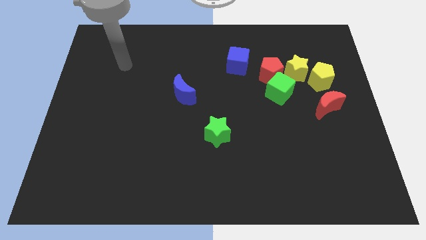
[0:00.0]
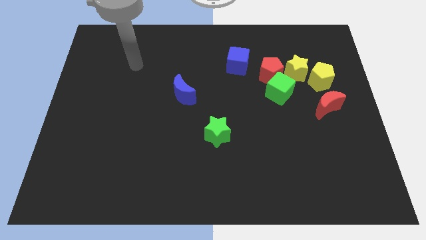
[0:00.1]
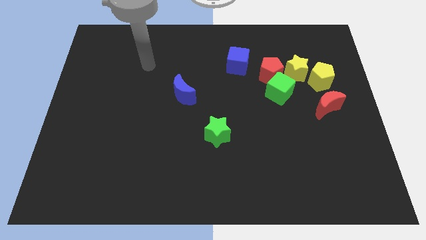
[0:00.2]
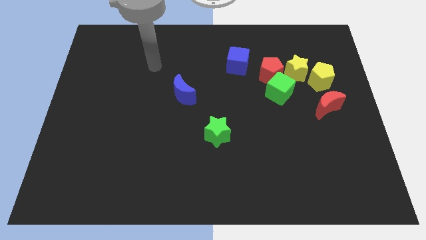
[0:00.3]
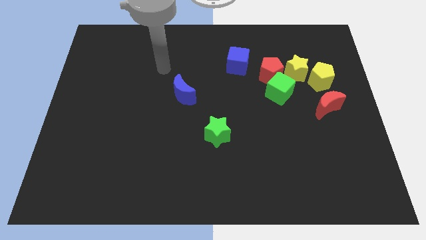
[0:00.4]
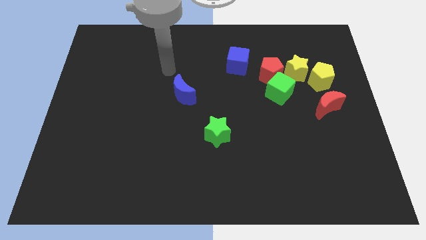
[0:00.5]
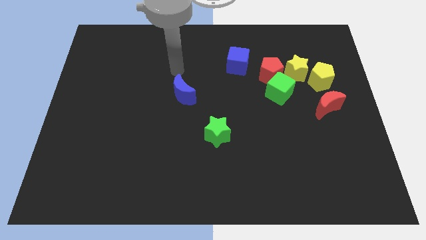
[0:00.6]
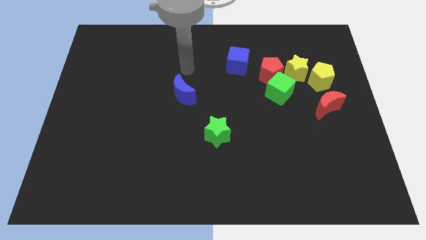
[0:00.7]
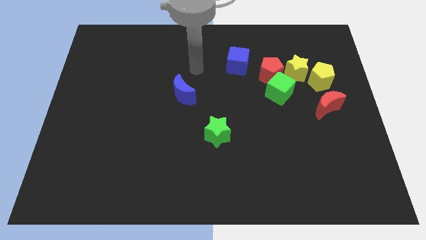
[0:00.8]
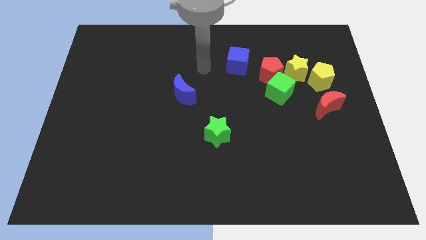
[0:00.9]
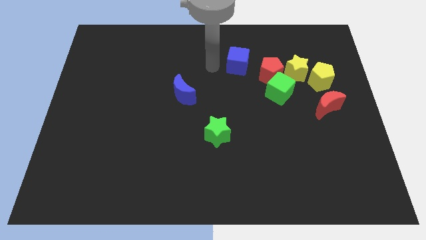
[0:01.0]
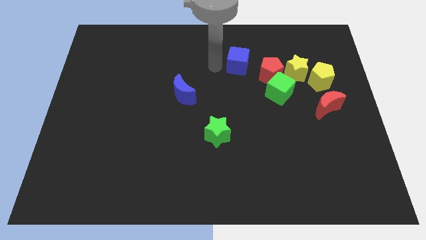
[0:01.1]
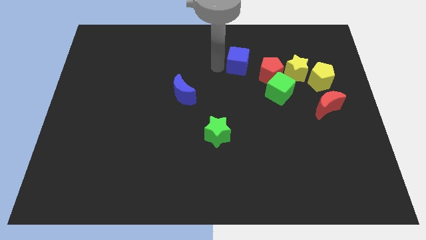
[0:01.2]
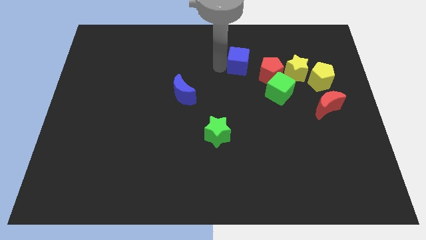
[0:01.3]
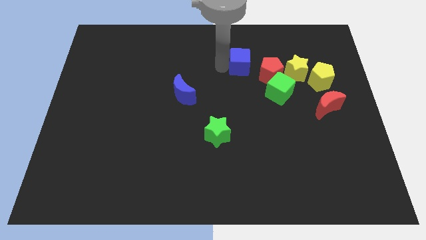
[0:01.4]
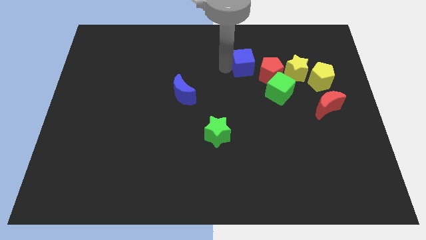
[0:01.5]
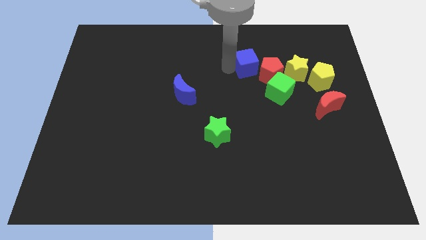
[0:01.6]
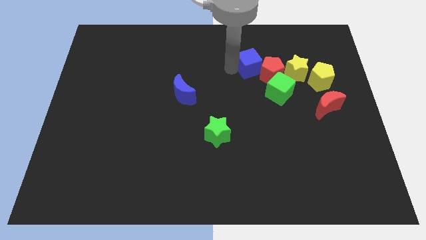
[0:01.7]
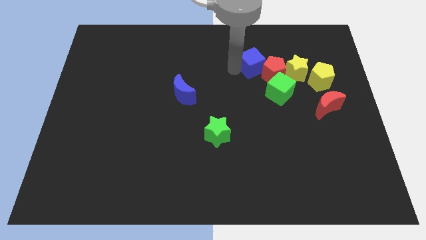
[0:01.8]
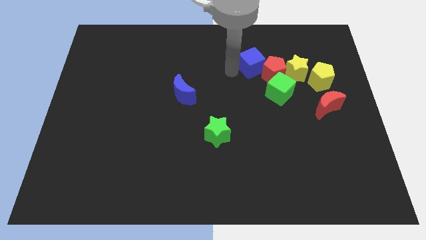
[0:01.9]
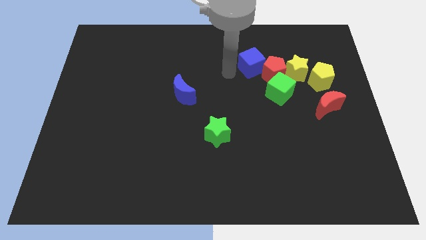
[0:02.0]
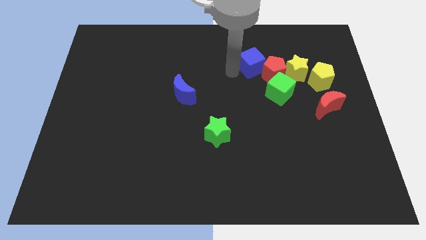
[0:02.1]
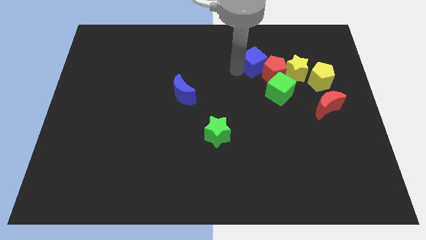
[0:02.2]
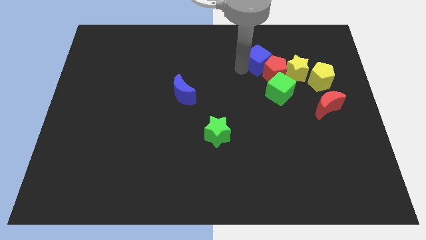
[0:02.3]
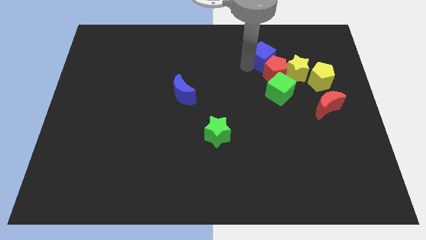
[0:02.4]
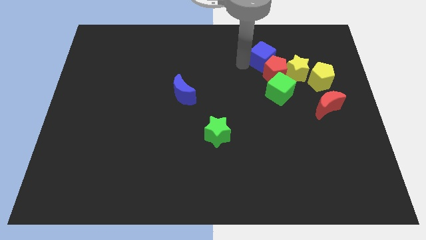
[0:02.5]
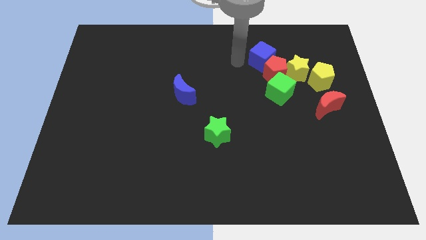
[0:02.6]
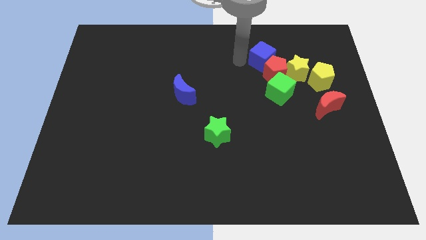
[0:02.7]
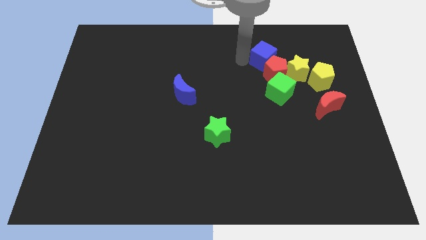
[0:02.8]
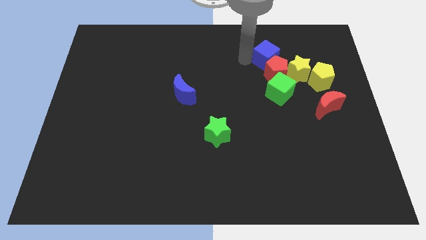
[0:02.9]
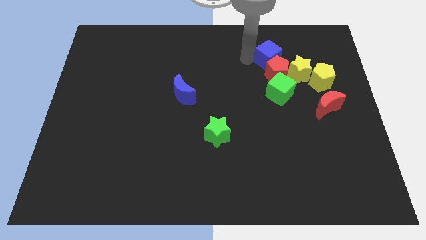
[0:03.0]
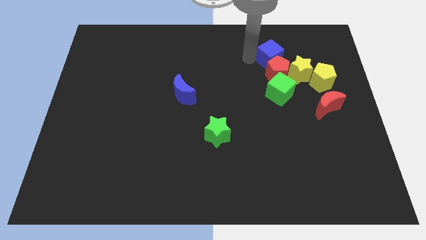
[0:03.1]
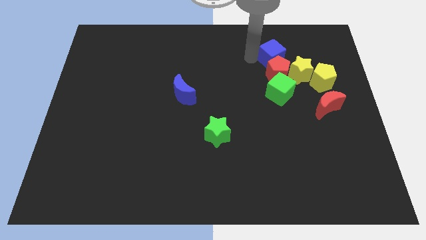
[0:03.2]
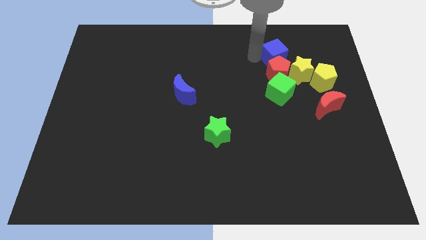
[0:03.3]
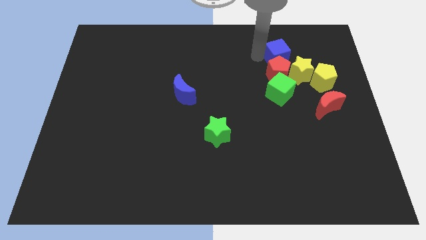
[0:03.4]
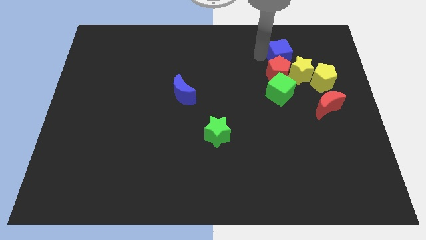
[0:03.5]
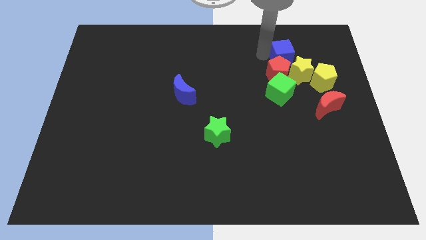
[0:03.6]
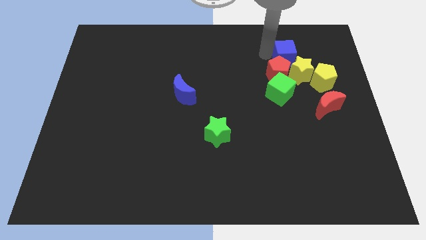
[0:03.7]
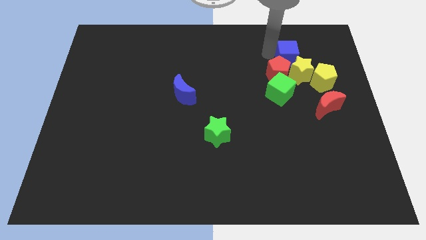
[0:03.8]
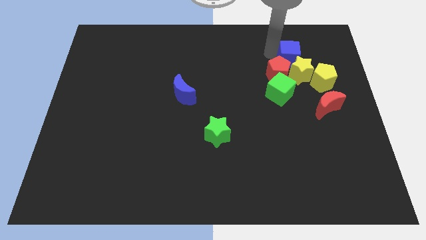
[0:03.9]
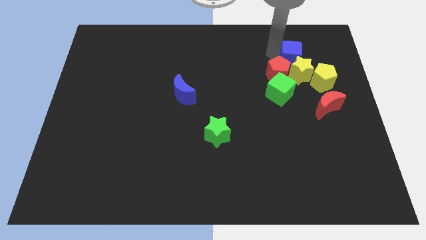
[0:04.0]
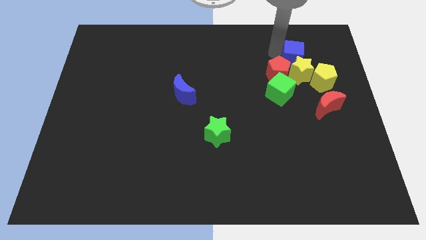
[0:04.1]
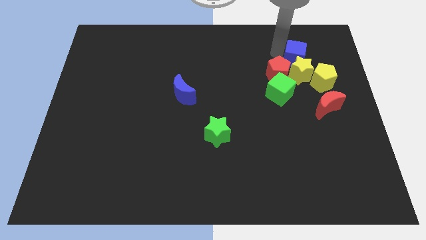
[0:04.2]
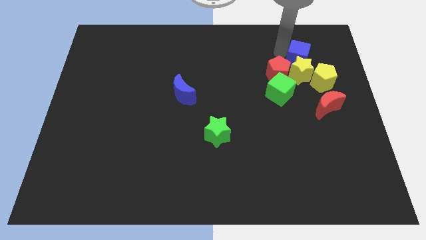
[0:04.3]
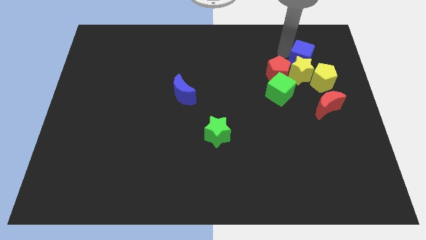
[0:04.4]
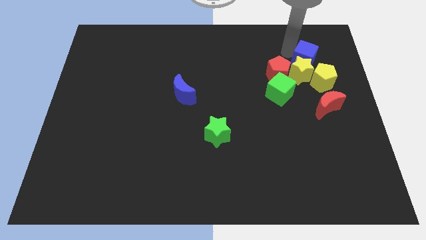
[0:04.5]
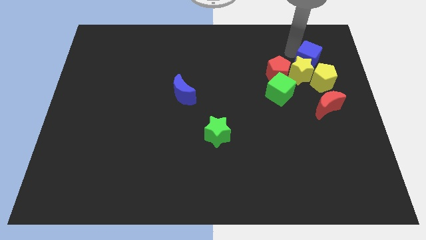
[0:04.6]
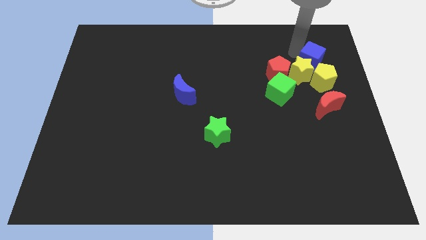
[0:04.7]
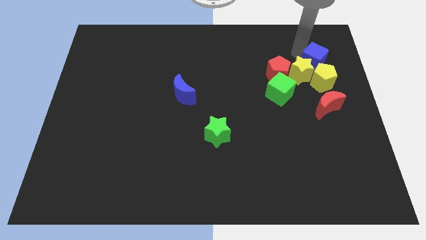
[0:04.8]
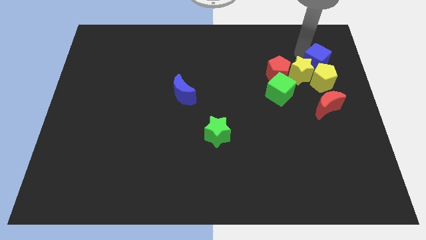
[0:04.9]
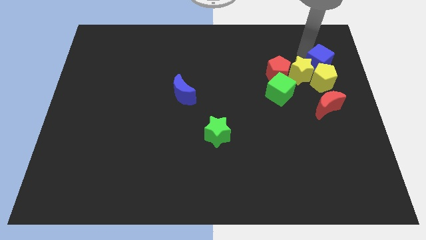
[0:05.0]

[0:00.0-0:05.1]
move the blue cube close to the yellow pentagon

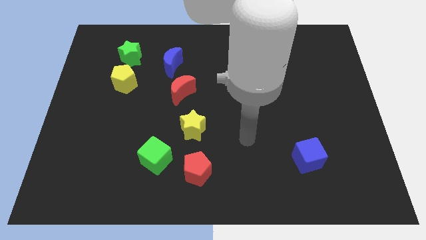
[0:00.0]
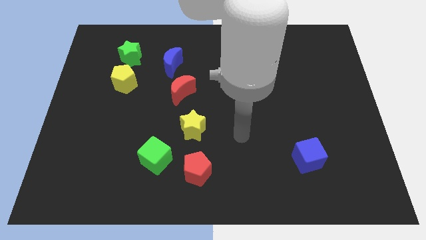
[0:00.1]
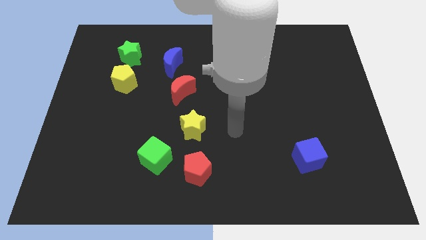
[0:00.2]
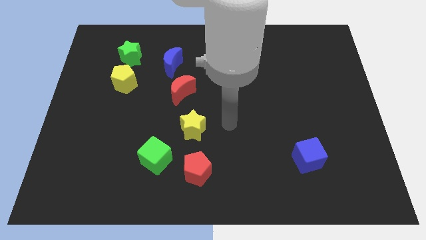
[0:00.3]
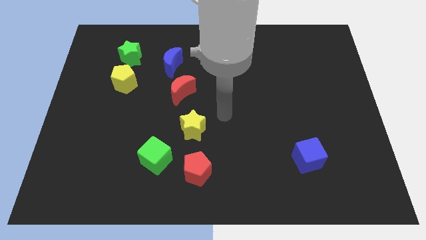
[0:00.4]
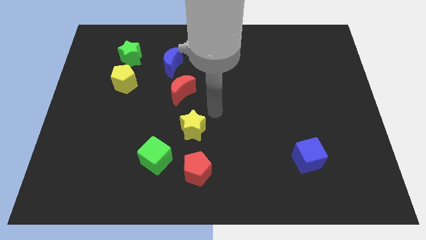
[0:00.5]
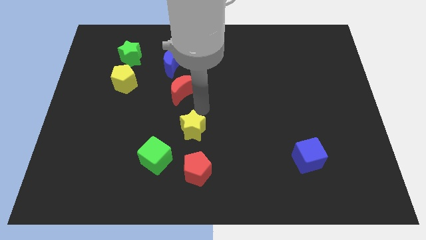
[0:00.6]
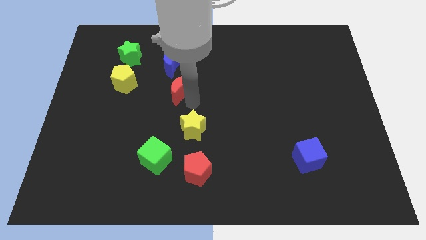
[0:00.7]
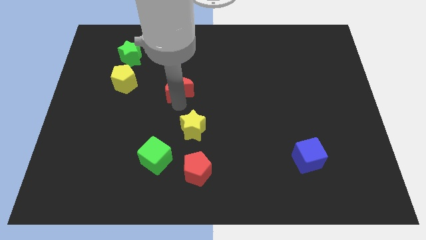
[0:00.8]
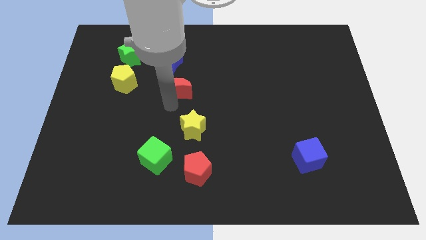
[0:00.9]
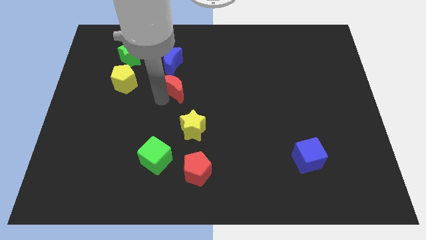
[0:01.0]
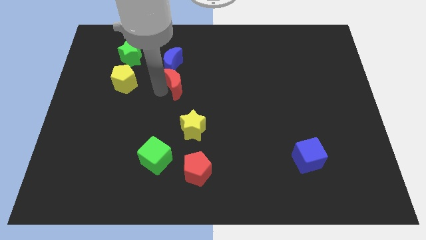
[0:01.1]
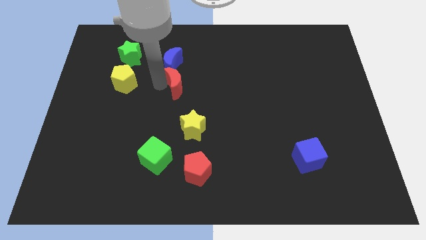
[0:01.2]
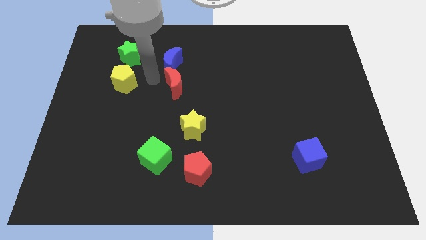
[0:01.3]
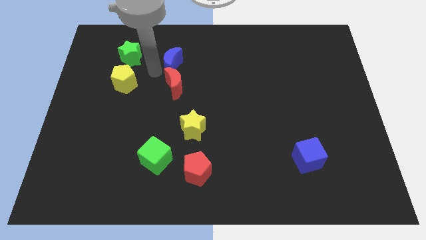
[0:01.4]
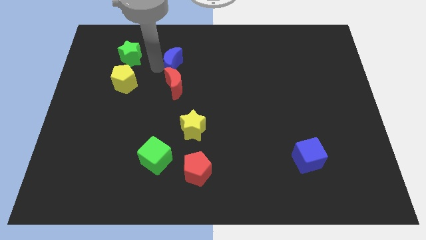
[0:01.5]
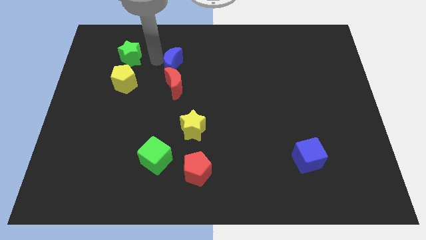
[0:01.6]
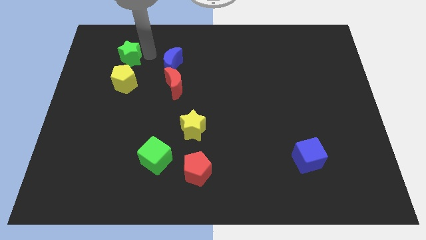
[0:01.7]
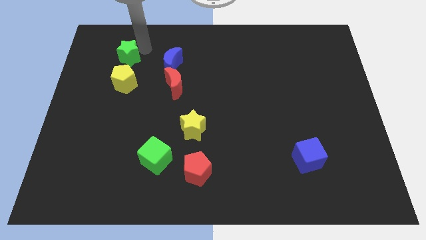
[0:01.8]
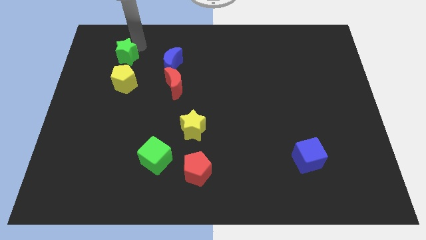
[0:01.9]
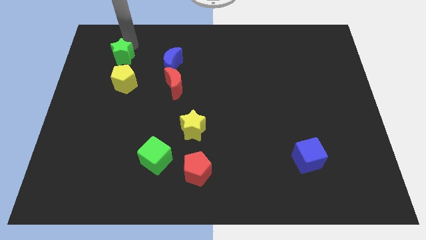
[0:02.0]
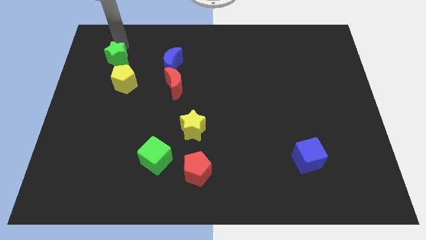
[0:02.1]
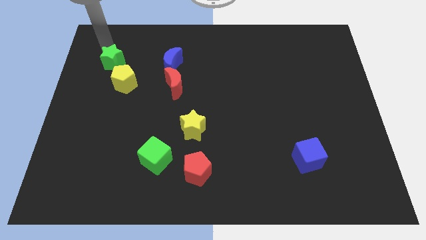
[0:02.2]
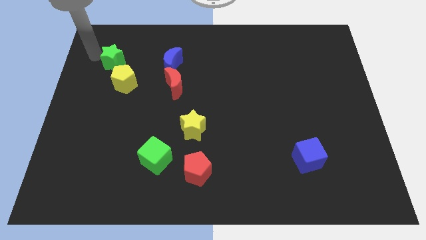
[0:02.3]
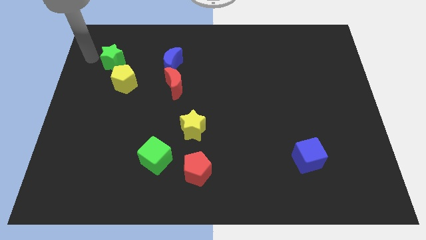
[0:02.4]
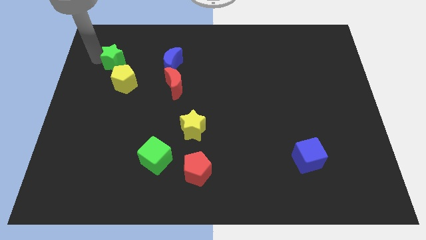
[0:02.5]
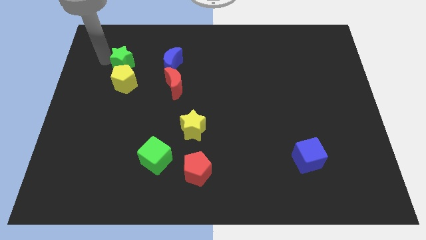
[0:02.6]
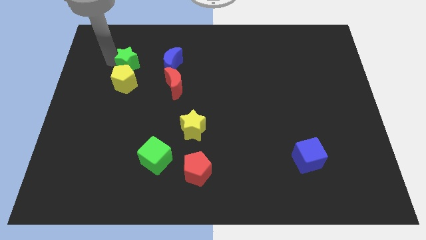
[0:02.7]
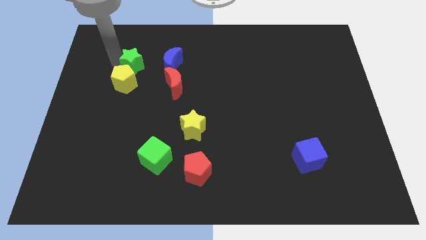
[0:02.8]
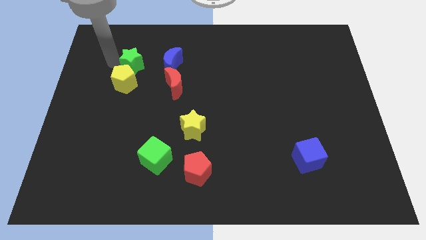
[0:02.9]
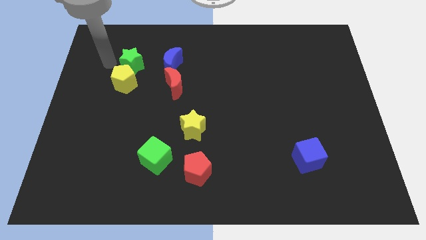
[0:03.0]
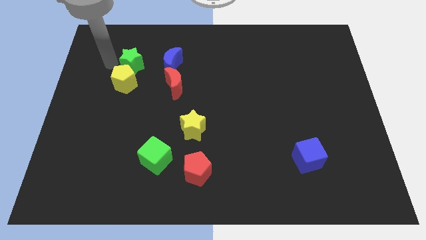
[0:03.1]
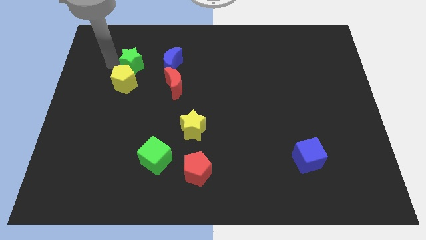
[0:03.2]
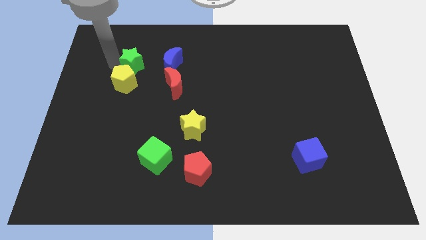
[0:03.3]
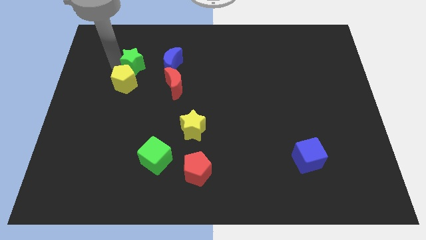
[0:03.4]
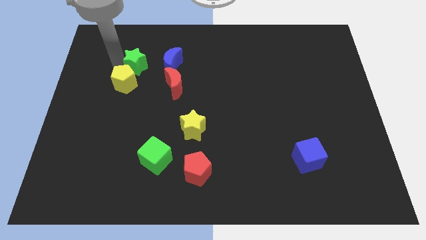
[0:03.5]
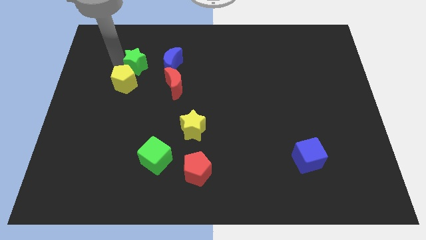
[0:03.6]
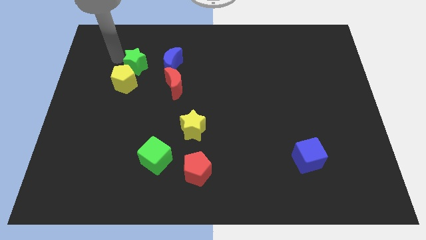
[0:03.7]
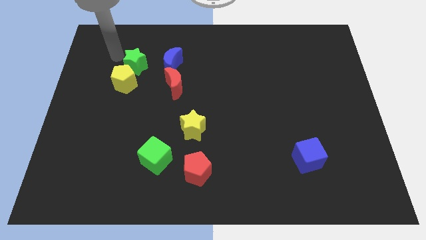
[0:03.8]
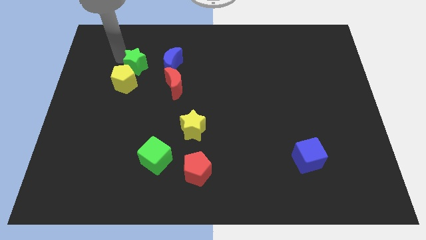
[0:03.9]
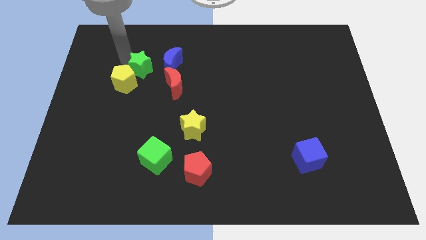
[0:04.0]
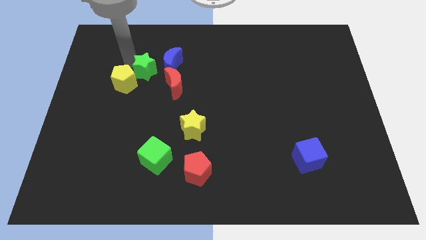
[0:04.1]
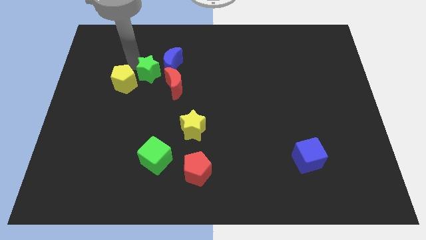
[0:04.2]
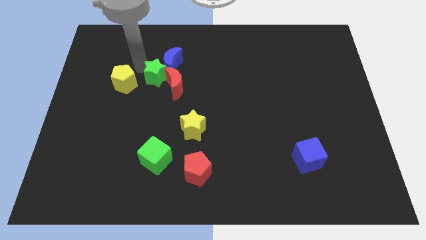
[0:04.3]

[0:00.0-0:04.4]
put the green star to the red moon
